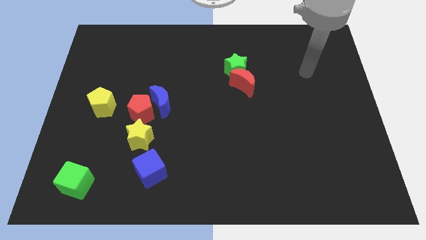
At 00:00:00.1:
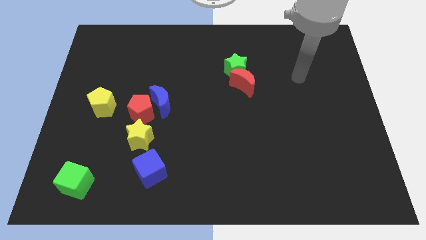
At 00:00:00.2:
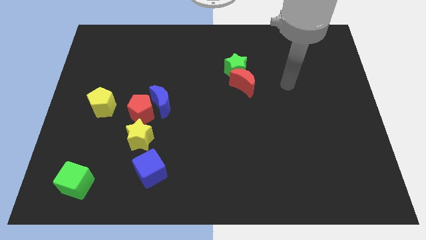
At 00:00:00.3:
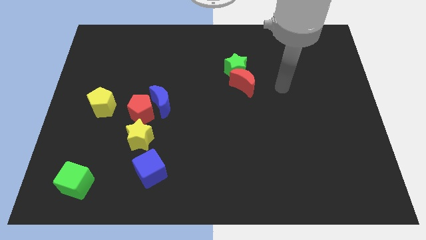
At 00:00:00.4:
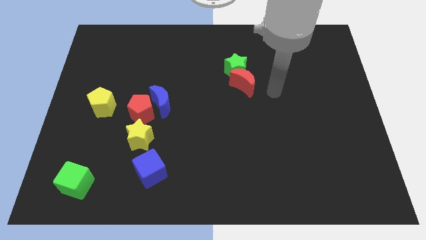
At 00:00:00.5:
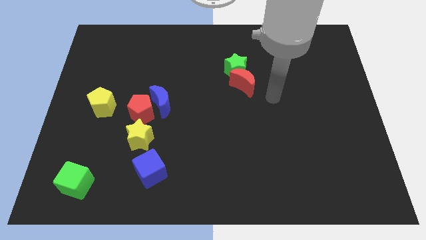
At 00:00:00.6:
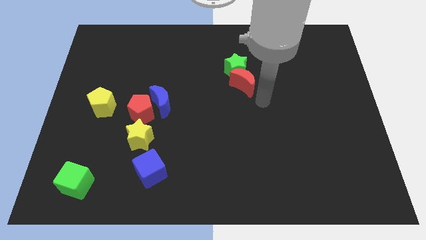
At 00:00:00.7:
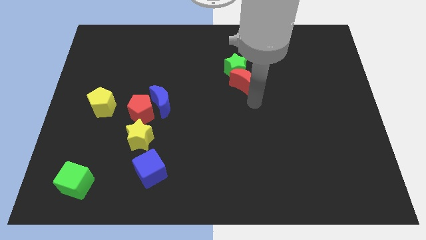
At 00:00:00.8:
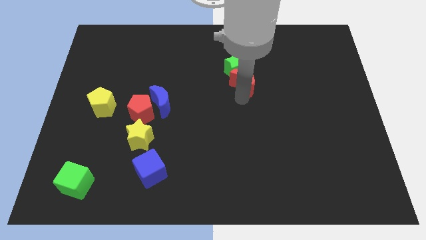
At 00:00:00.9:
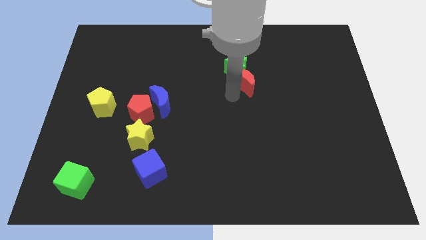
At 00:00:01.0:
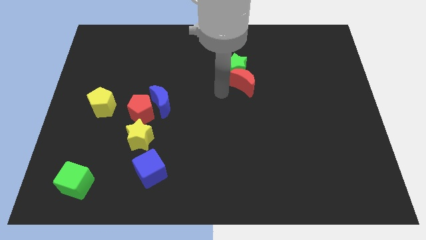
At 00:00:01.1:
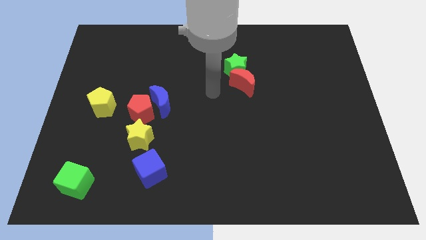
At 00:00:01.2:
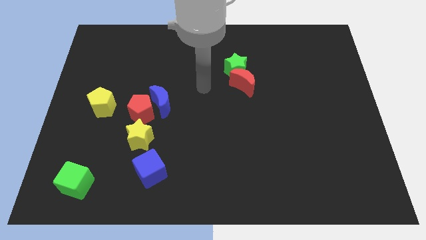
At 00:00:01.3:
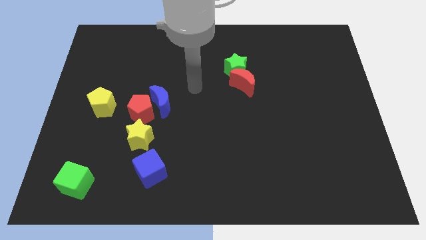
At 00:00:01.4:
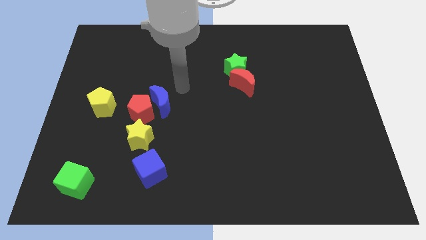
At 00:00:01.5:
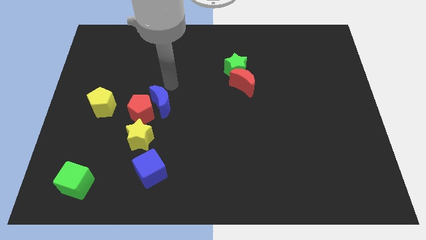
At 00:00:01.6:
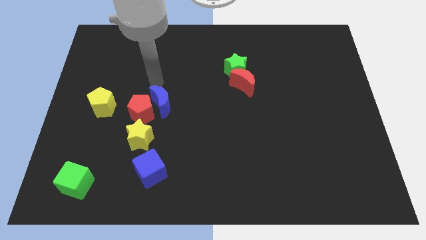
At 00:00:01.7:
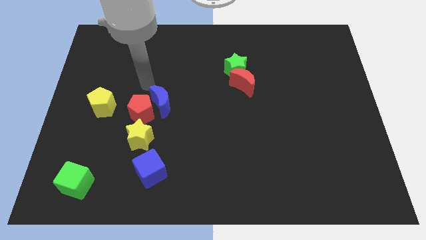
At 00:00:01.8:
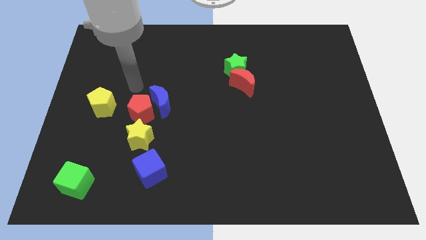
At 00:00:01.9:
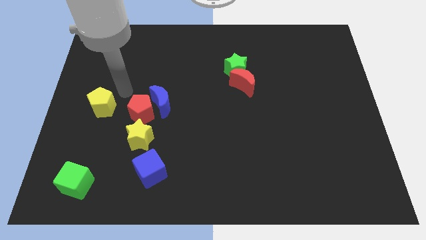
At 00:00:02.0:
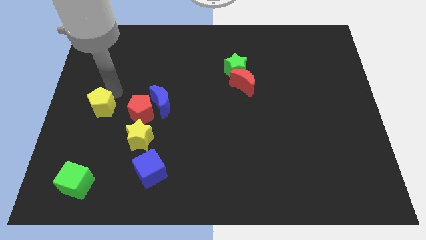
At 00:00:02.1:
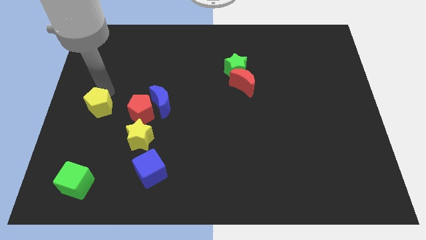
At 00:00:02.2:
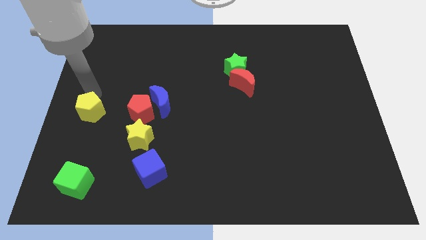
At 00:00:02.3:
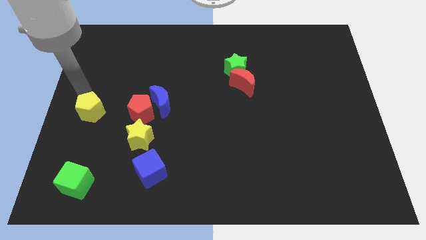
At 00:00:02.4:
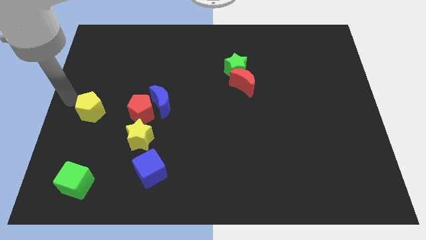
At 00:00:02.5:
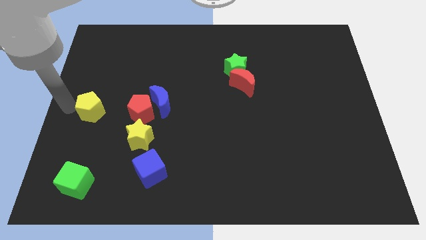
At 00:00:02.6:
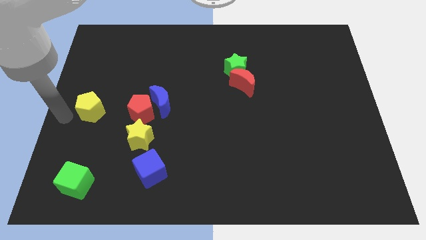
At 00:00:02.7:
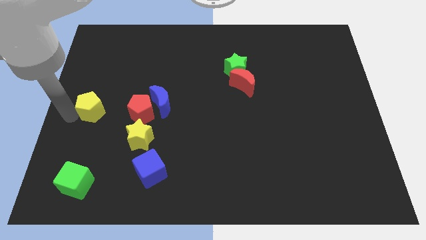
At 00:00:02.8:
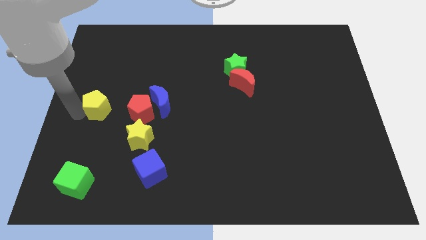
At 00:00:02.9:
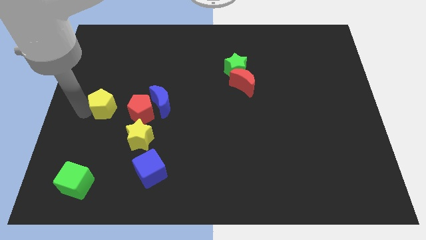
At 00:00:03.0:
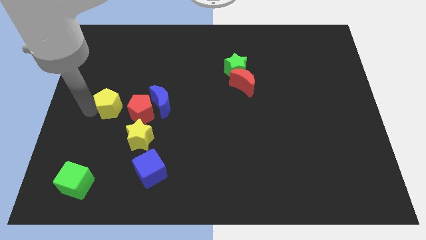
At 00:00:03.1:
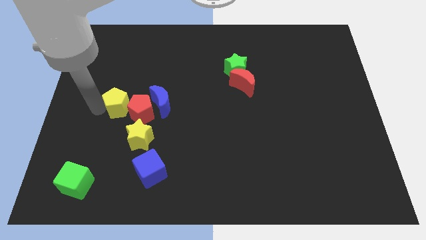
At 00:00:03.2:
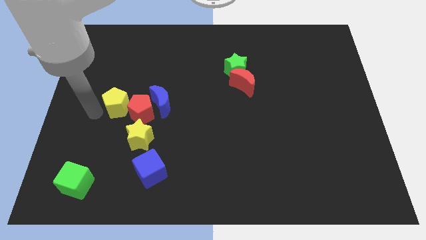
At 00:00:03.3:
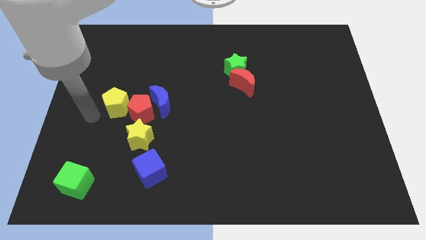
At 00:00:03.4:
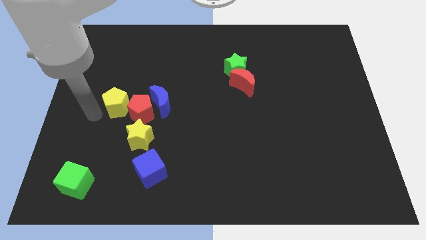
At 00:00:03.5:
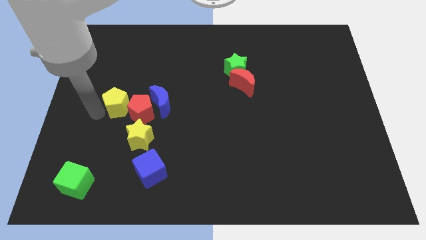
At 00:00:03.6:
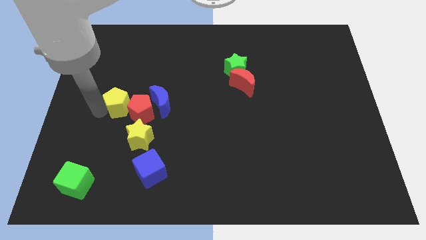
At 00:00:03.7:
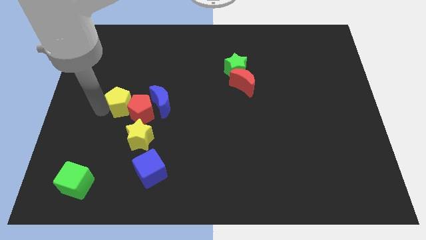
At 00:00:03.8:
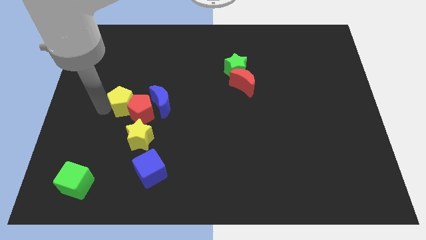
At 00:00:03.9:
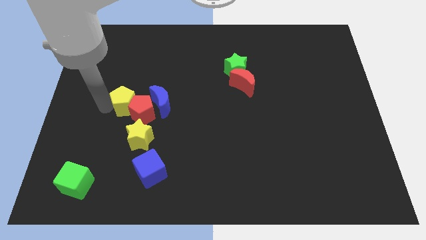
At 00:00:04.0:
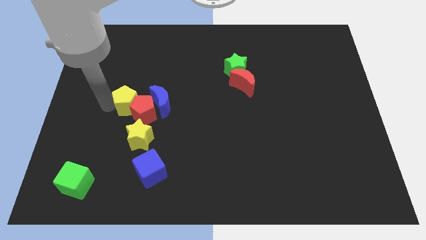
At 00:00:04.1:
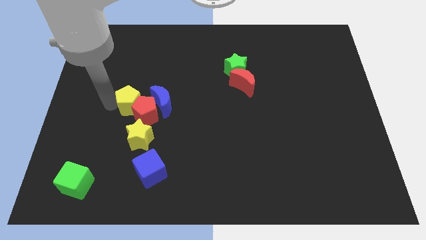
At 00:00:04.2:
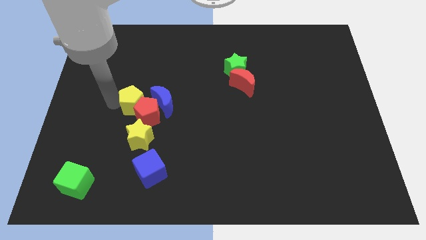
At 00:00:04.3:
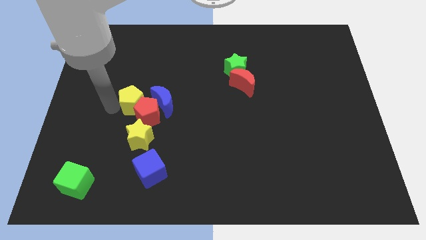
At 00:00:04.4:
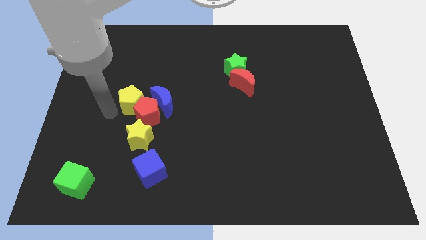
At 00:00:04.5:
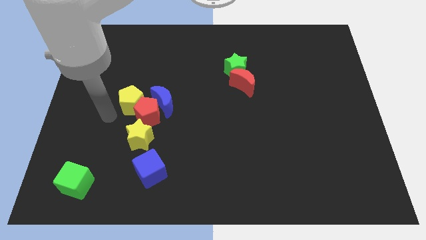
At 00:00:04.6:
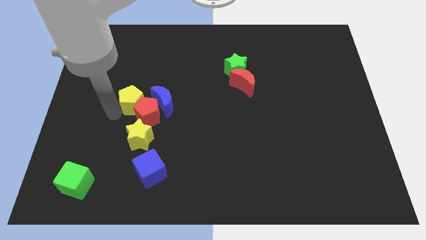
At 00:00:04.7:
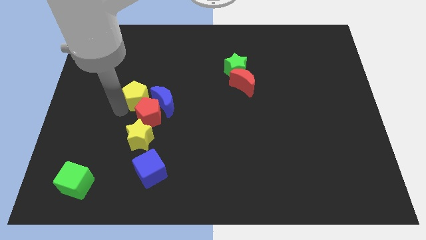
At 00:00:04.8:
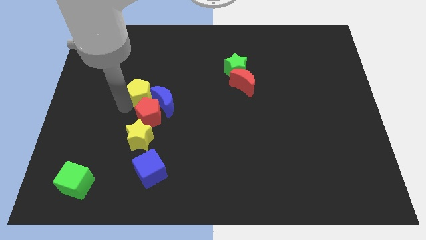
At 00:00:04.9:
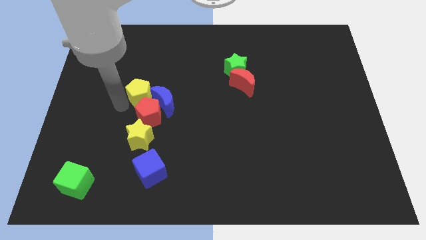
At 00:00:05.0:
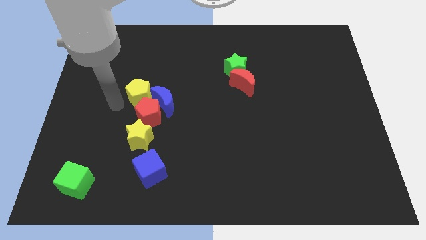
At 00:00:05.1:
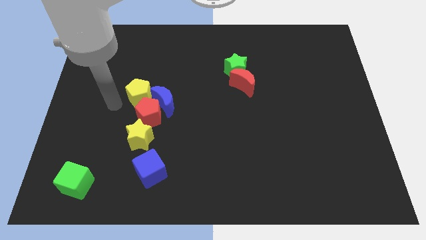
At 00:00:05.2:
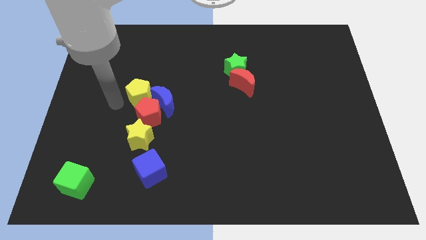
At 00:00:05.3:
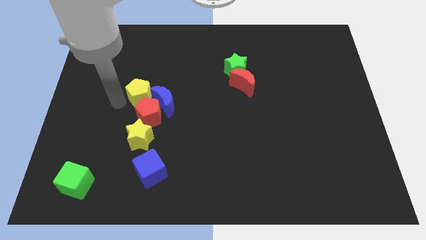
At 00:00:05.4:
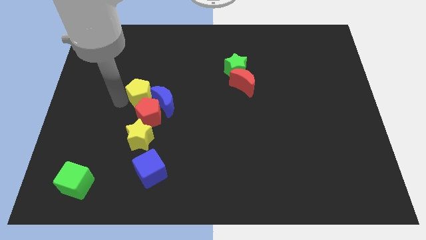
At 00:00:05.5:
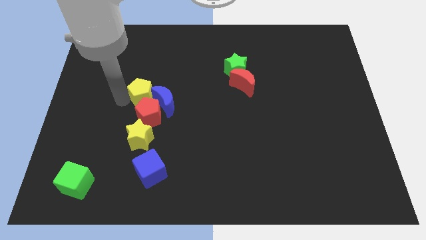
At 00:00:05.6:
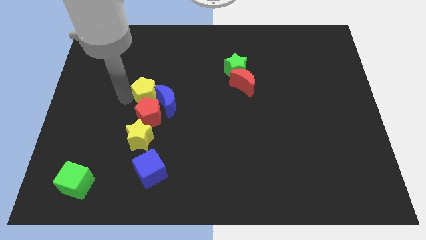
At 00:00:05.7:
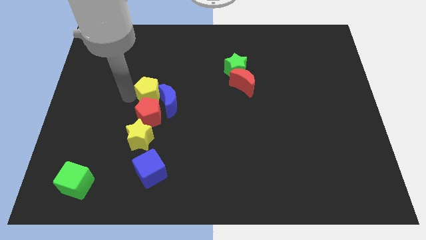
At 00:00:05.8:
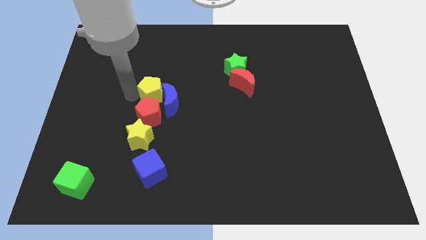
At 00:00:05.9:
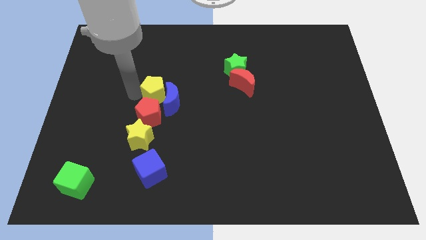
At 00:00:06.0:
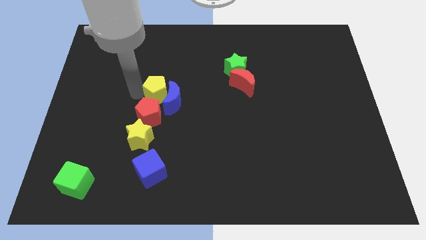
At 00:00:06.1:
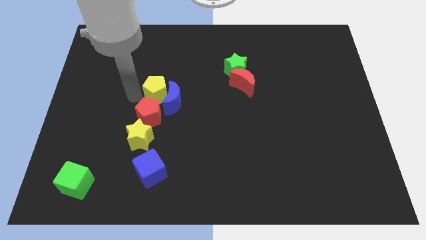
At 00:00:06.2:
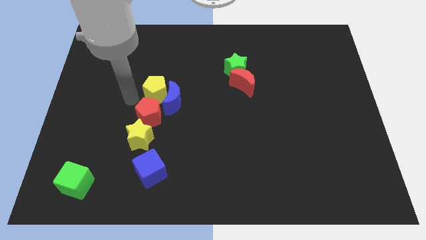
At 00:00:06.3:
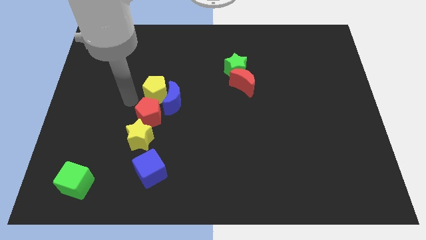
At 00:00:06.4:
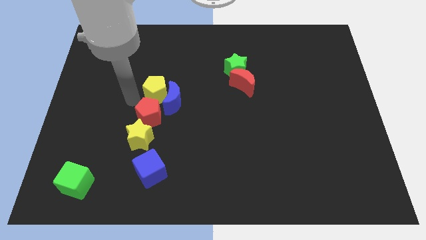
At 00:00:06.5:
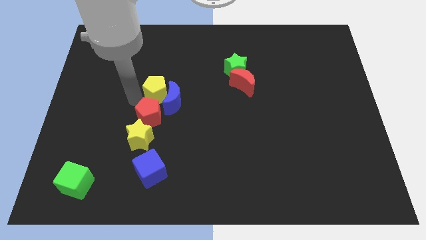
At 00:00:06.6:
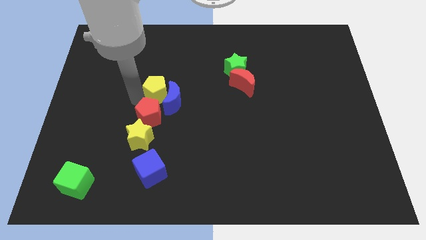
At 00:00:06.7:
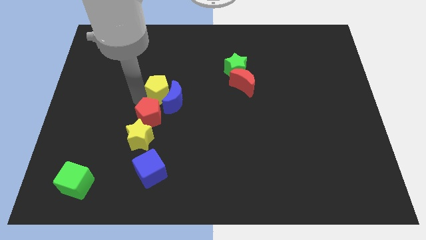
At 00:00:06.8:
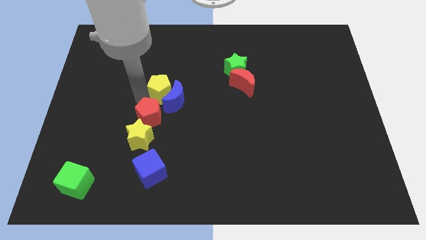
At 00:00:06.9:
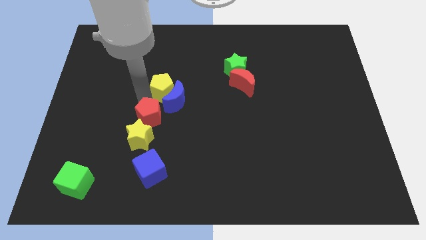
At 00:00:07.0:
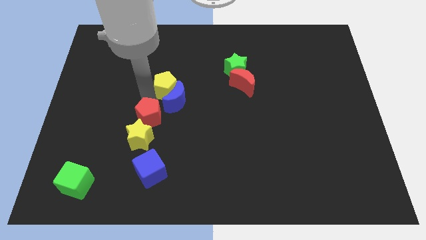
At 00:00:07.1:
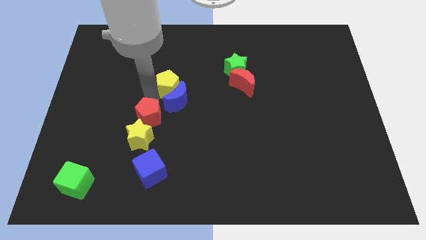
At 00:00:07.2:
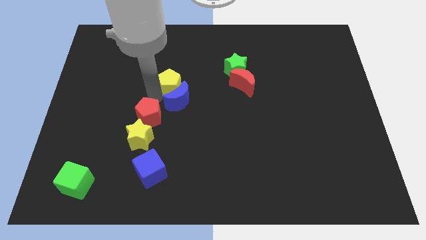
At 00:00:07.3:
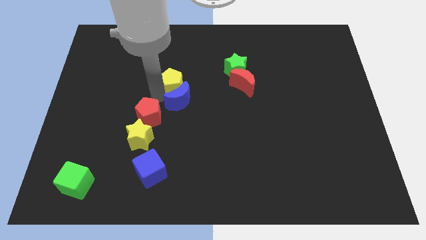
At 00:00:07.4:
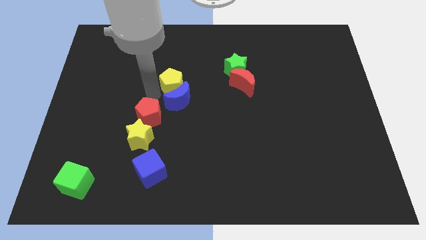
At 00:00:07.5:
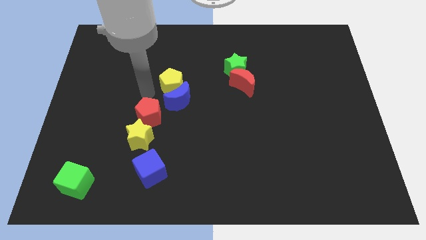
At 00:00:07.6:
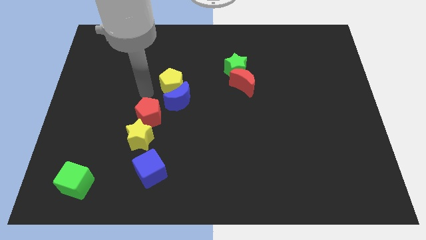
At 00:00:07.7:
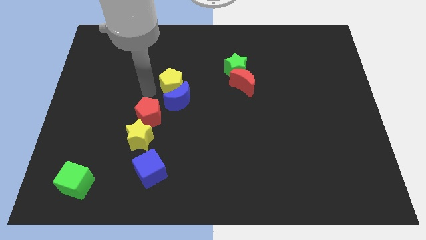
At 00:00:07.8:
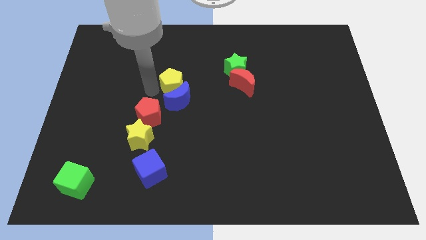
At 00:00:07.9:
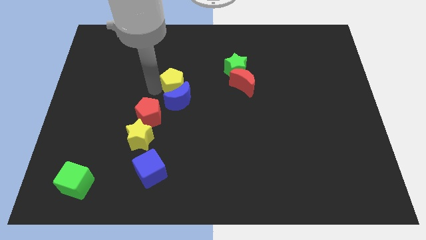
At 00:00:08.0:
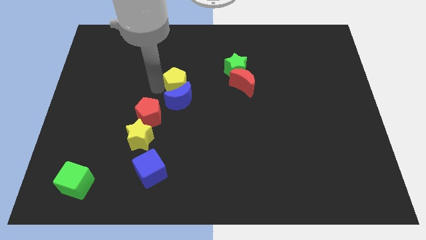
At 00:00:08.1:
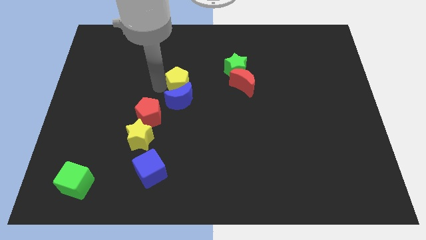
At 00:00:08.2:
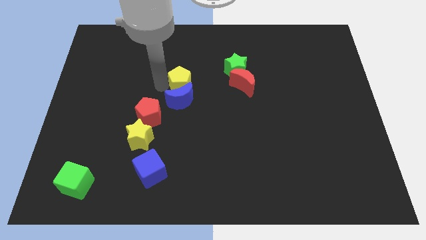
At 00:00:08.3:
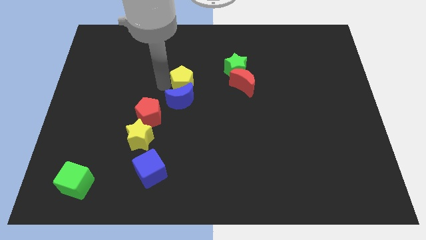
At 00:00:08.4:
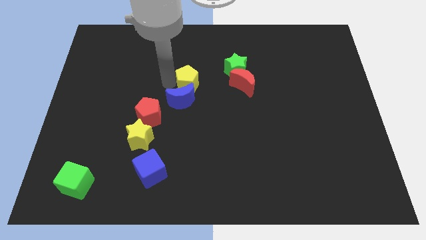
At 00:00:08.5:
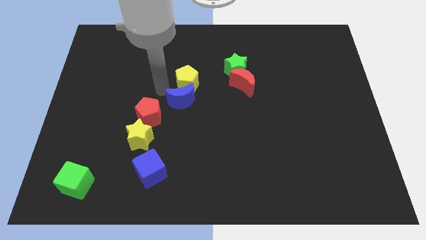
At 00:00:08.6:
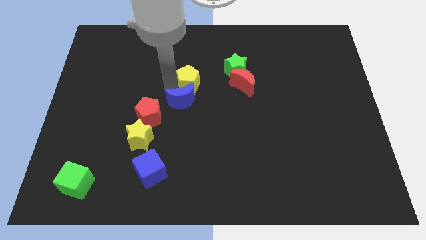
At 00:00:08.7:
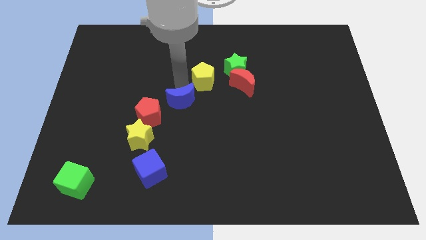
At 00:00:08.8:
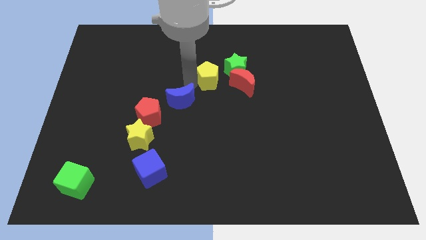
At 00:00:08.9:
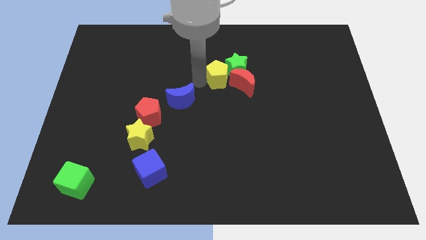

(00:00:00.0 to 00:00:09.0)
slide the yellow pentagon to the green star
